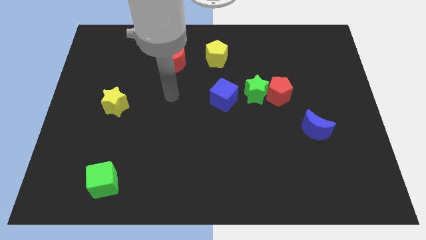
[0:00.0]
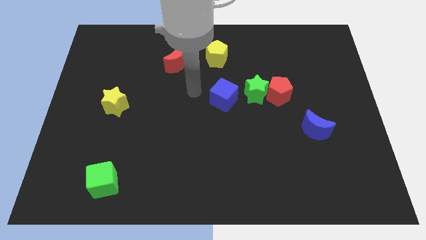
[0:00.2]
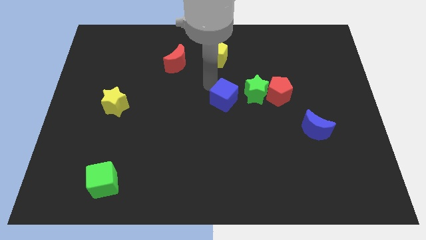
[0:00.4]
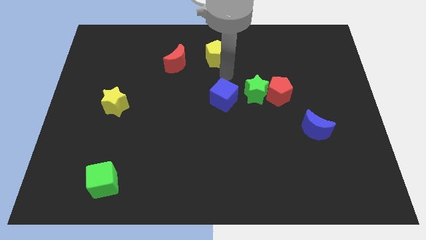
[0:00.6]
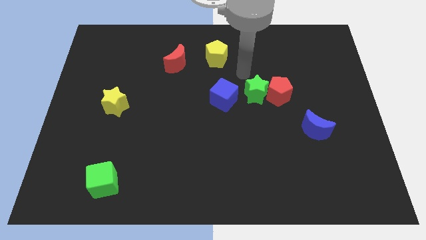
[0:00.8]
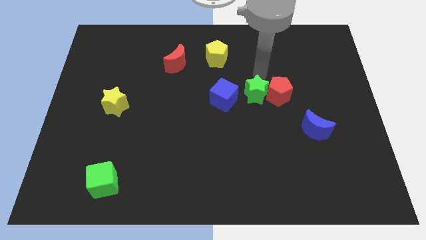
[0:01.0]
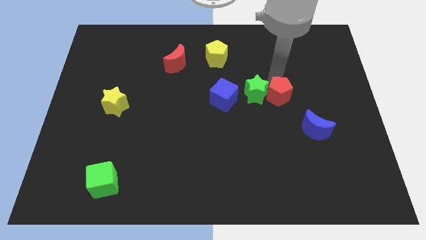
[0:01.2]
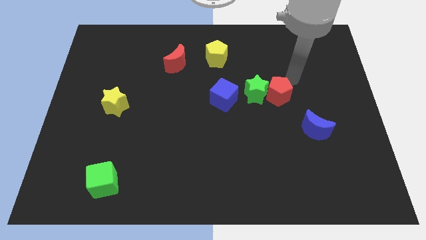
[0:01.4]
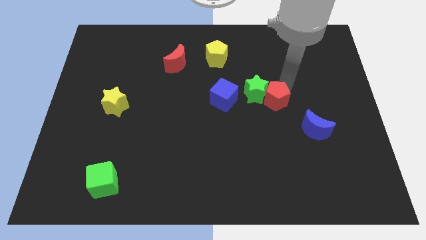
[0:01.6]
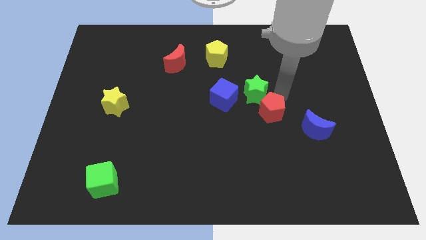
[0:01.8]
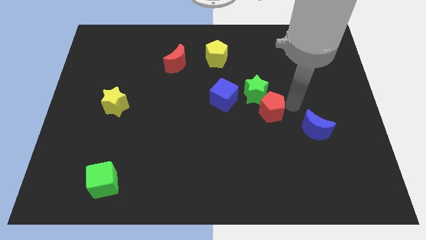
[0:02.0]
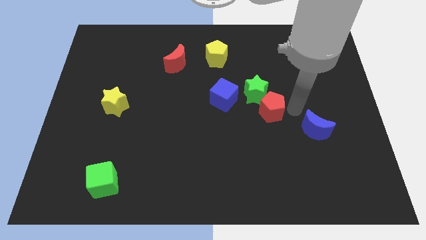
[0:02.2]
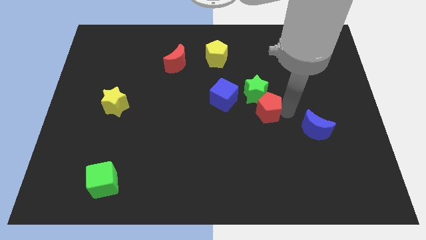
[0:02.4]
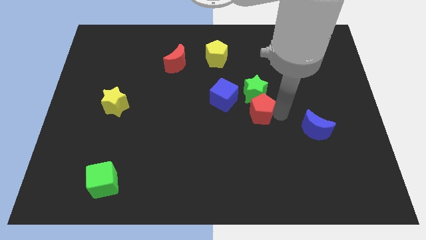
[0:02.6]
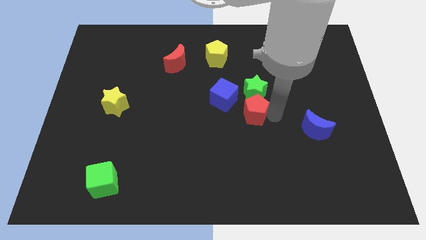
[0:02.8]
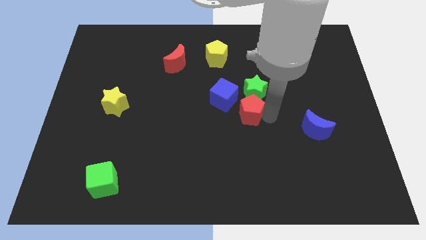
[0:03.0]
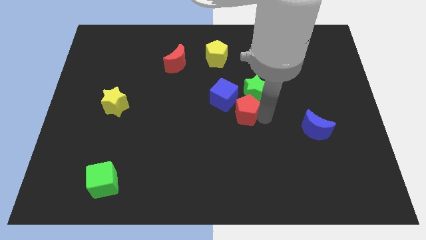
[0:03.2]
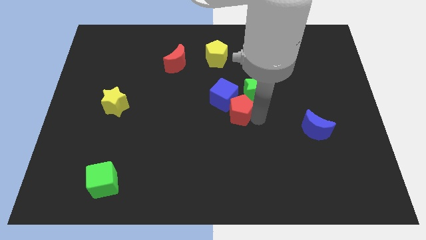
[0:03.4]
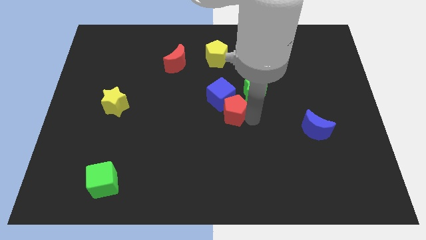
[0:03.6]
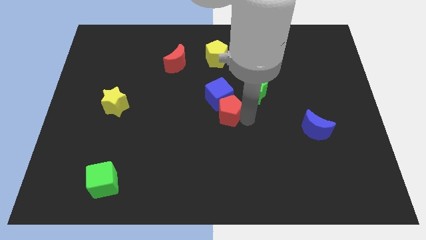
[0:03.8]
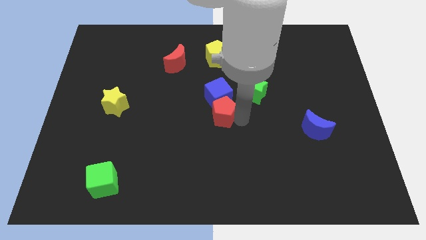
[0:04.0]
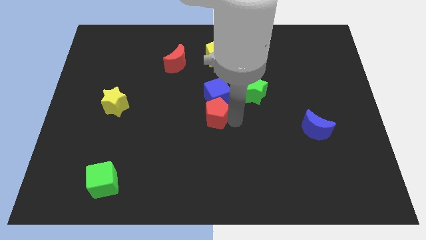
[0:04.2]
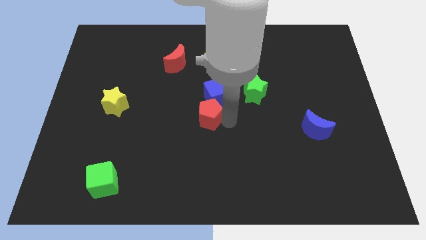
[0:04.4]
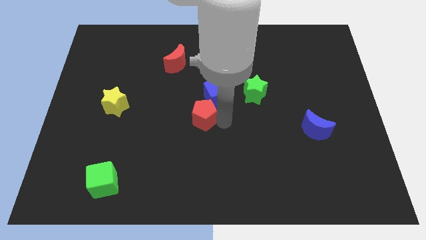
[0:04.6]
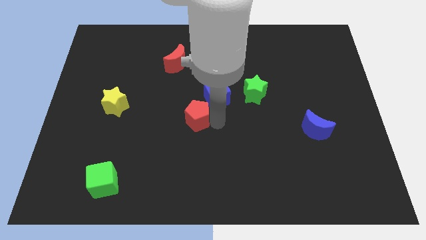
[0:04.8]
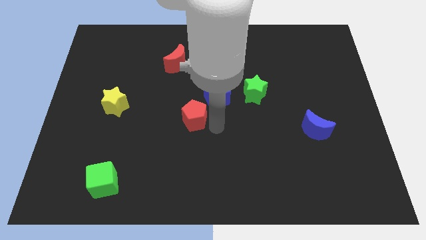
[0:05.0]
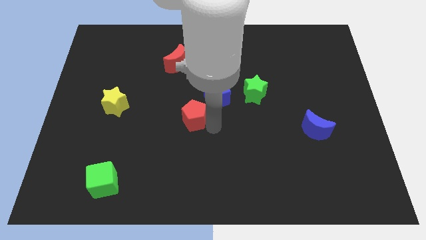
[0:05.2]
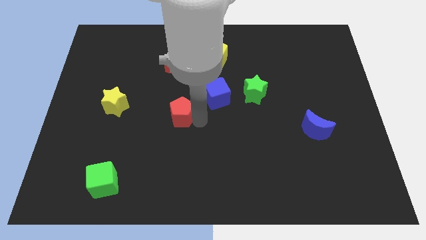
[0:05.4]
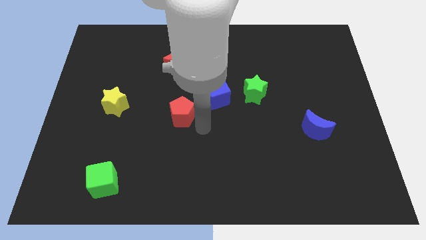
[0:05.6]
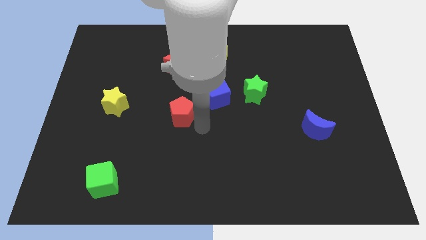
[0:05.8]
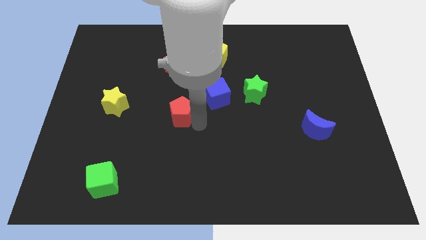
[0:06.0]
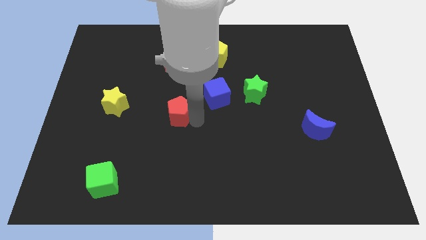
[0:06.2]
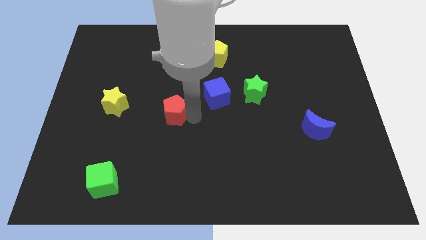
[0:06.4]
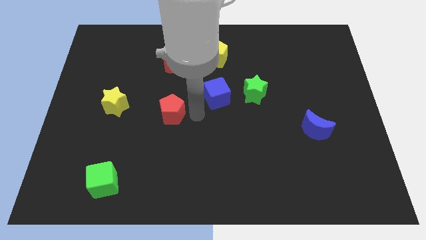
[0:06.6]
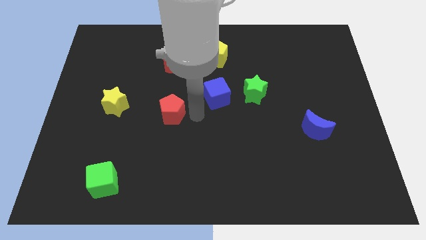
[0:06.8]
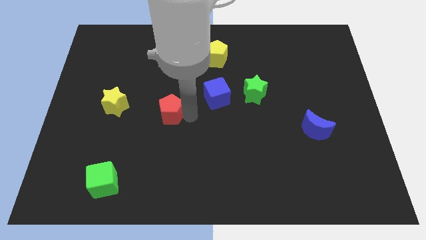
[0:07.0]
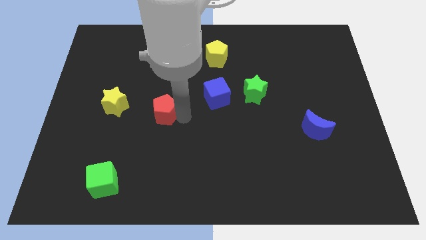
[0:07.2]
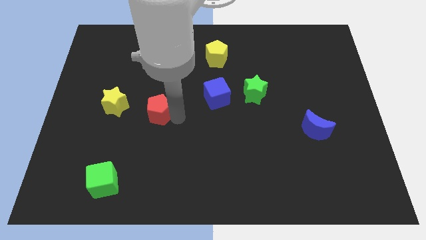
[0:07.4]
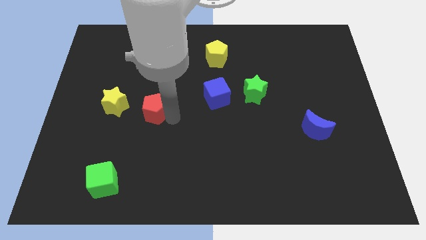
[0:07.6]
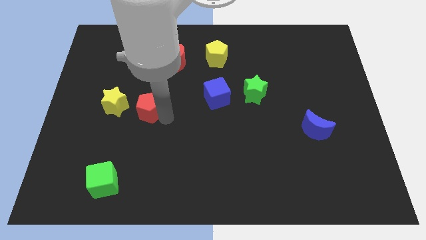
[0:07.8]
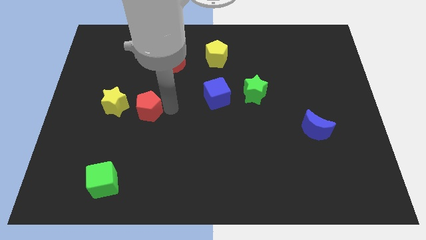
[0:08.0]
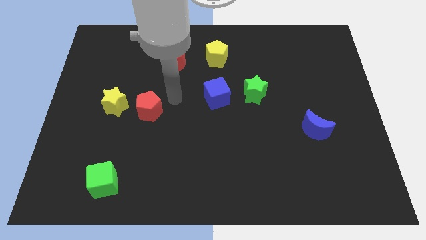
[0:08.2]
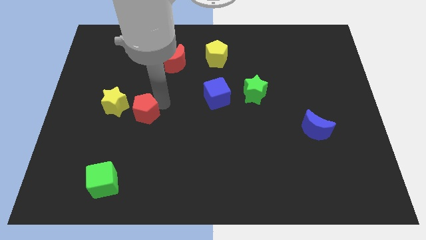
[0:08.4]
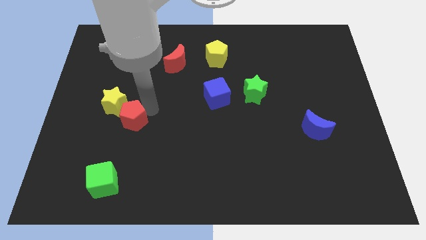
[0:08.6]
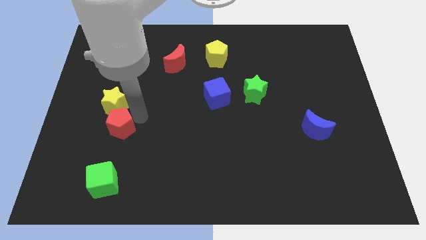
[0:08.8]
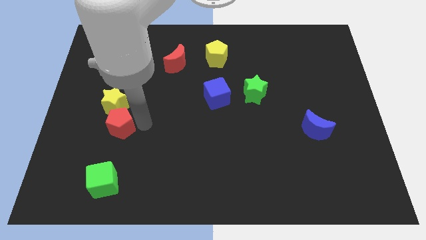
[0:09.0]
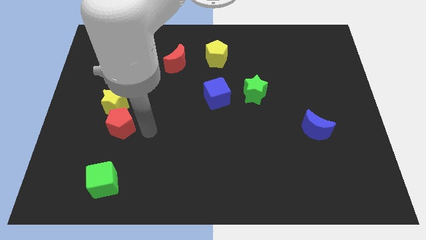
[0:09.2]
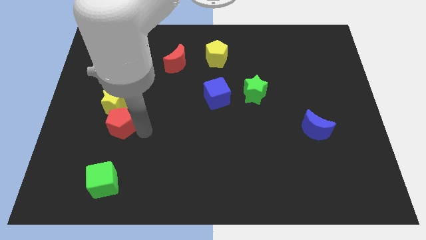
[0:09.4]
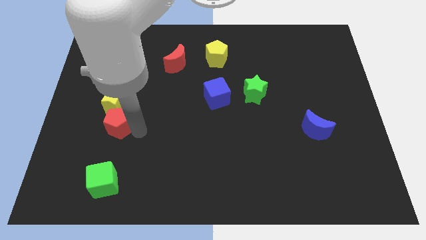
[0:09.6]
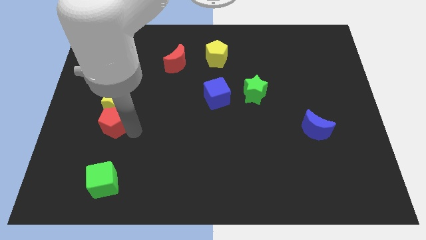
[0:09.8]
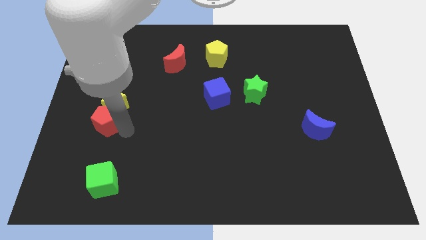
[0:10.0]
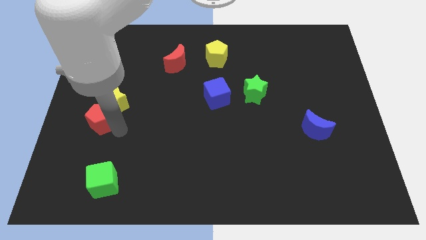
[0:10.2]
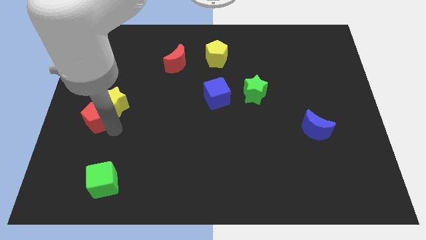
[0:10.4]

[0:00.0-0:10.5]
put the red pentagon to the left side

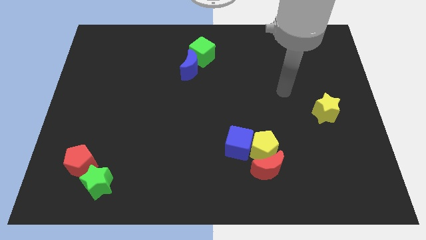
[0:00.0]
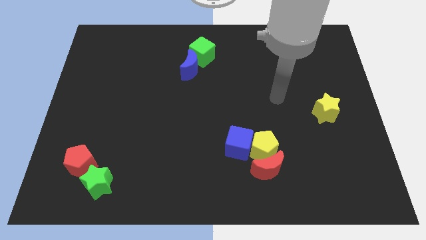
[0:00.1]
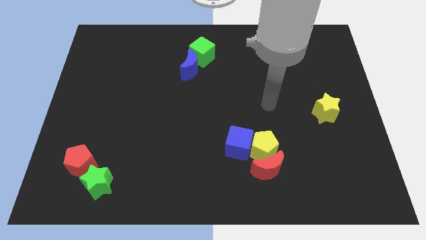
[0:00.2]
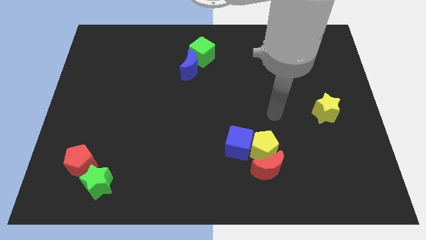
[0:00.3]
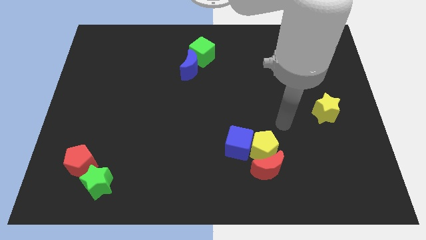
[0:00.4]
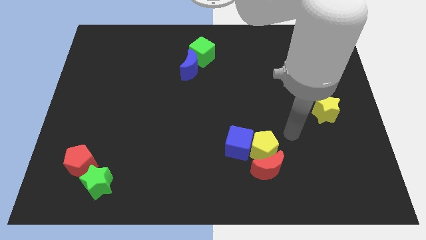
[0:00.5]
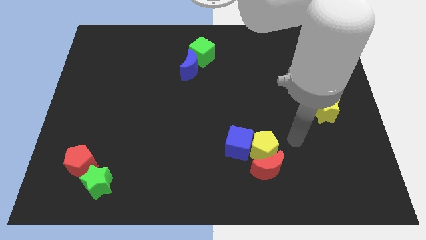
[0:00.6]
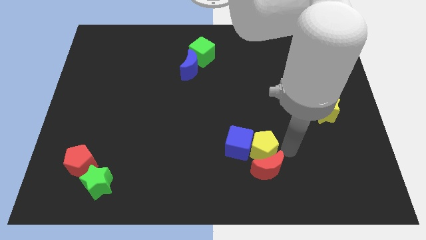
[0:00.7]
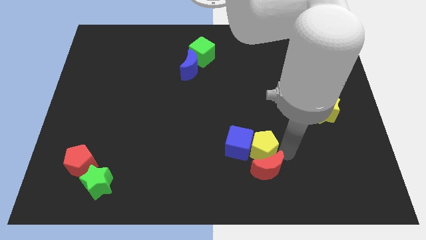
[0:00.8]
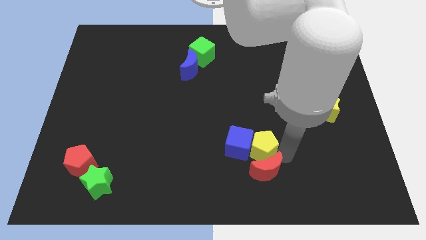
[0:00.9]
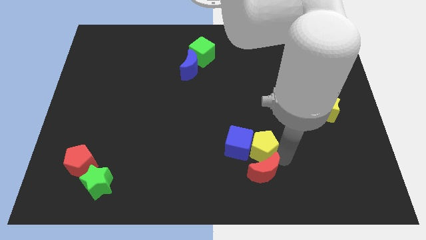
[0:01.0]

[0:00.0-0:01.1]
move the red moon to the bottom
